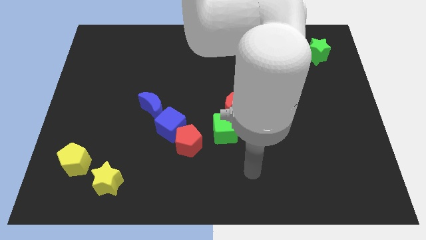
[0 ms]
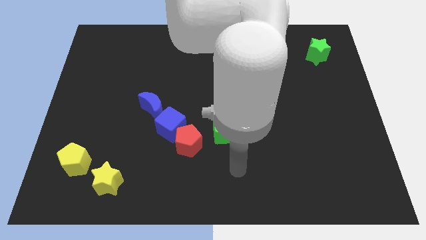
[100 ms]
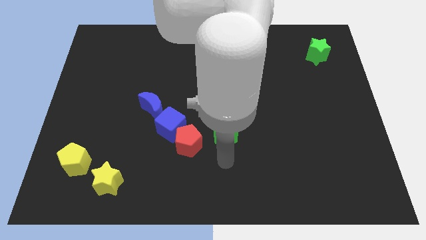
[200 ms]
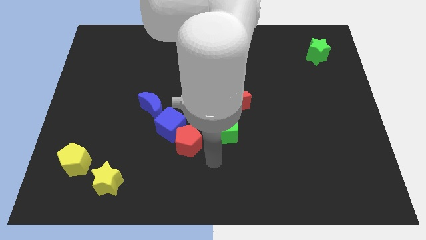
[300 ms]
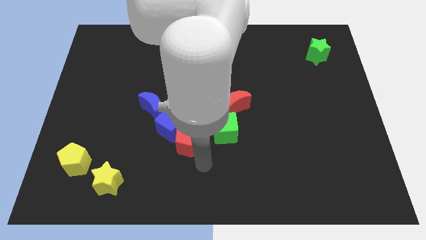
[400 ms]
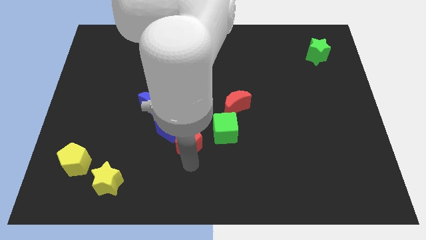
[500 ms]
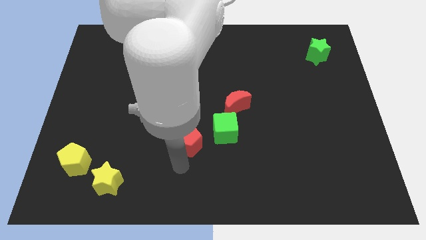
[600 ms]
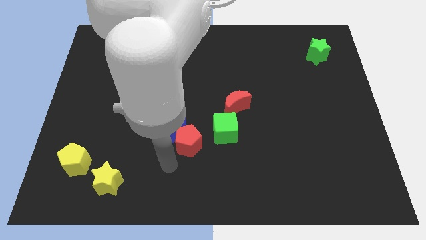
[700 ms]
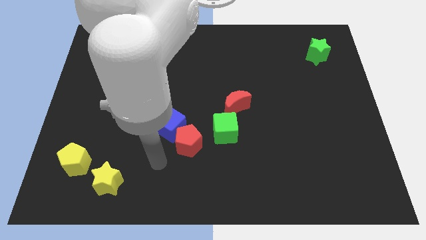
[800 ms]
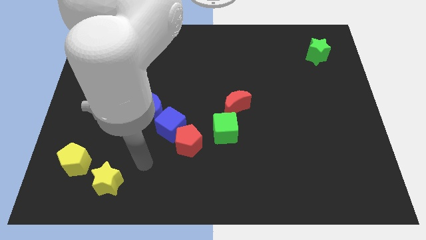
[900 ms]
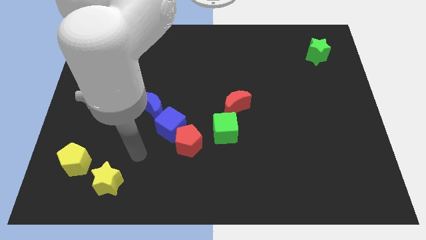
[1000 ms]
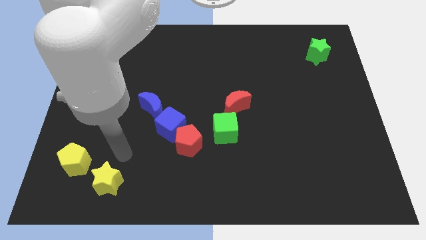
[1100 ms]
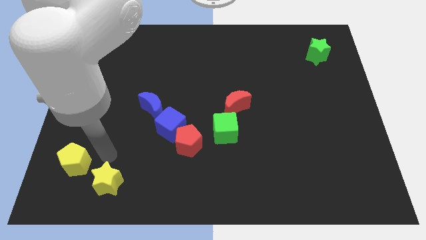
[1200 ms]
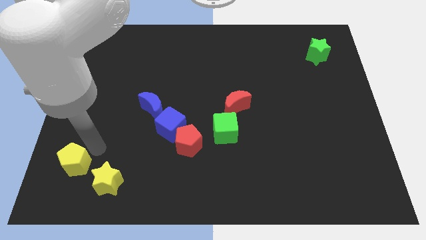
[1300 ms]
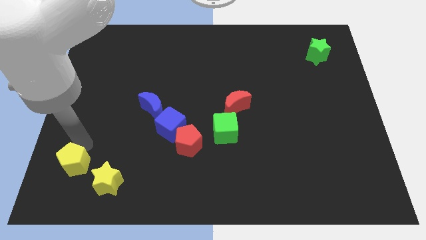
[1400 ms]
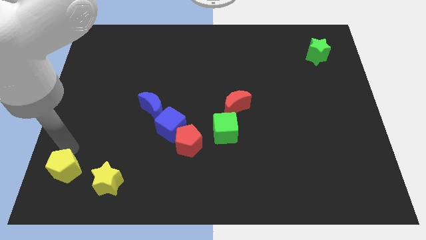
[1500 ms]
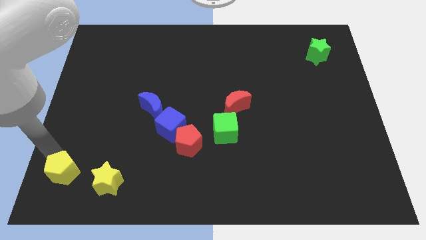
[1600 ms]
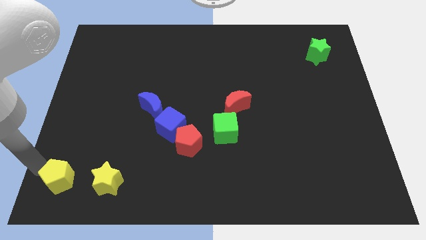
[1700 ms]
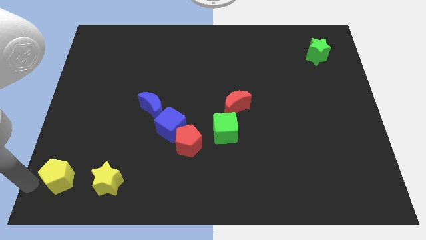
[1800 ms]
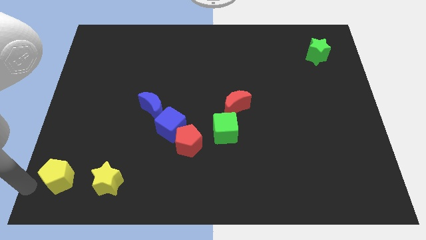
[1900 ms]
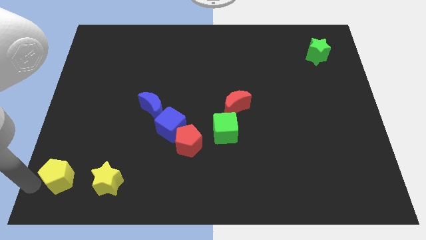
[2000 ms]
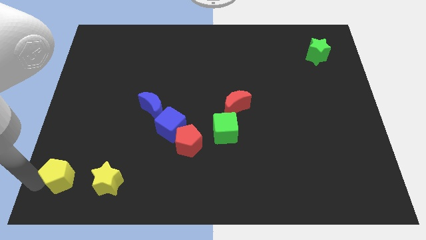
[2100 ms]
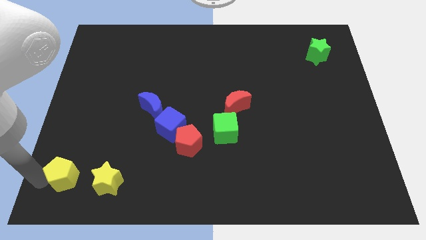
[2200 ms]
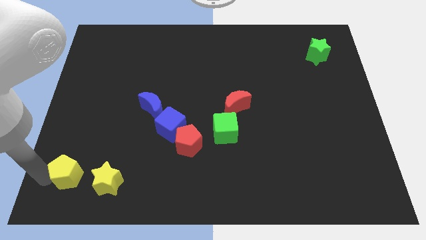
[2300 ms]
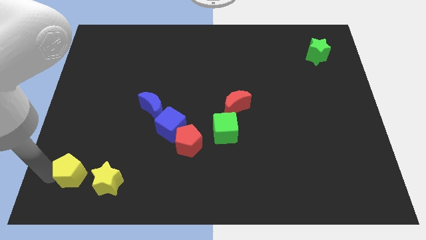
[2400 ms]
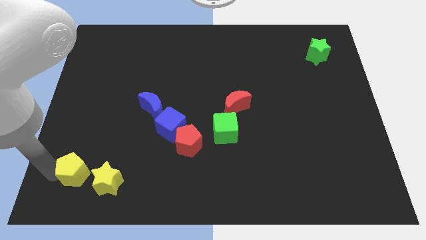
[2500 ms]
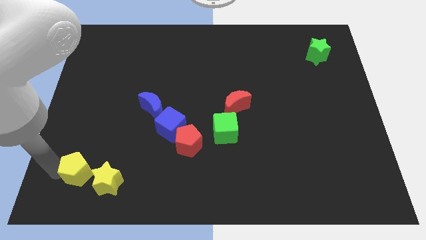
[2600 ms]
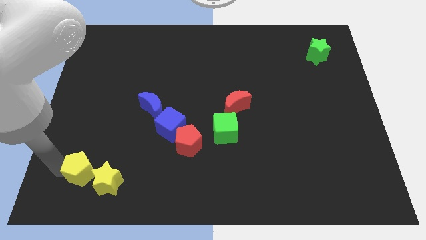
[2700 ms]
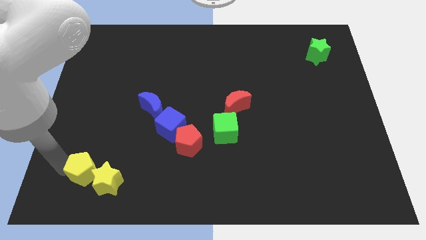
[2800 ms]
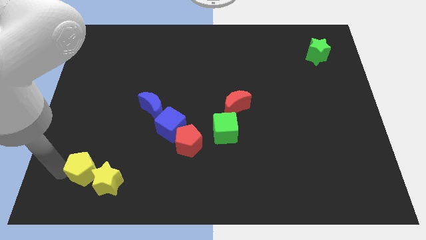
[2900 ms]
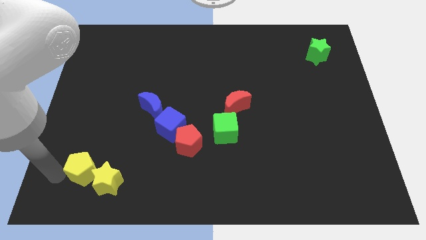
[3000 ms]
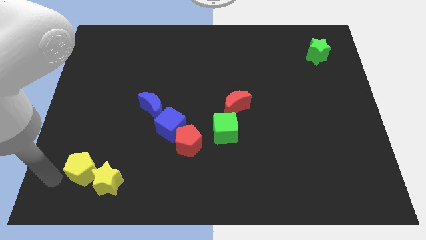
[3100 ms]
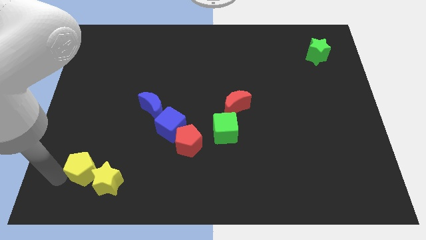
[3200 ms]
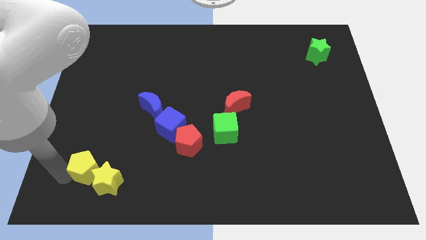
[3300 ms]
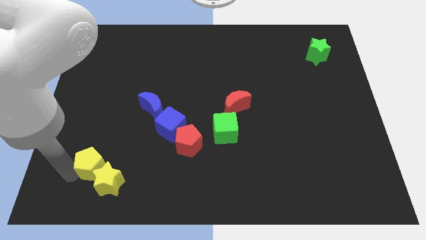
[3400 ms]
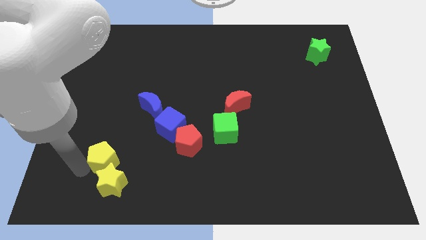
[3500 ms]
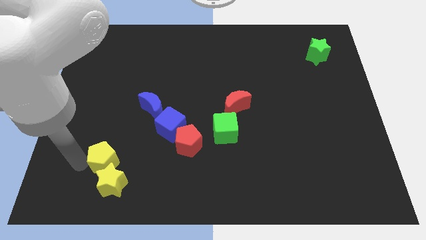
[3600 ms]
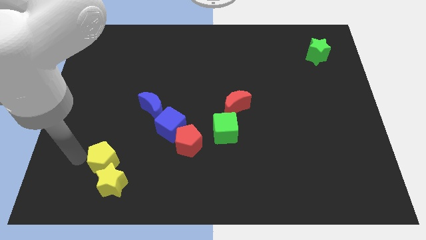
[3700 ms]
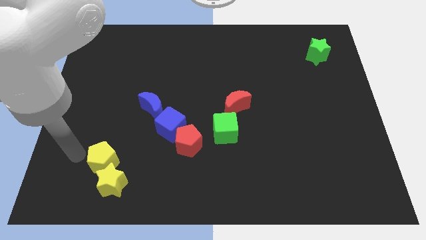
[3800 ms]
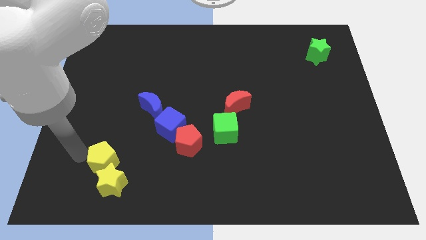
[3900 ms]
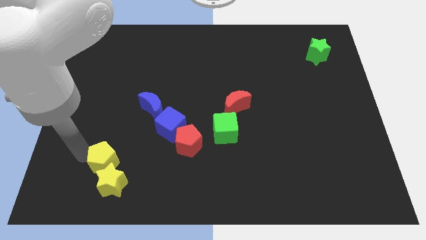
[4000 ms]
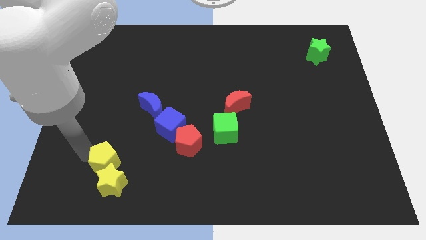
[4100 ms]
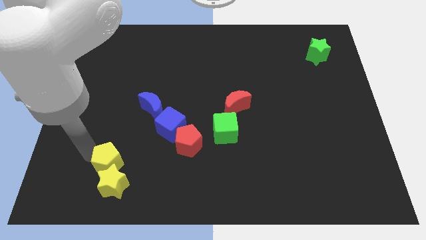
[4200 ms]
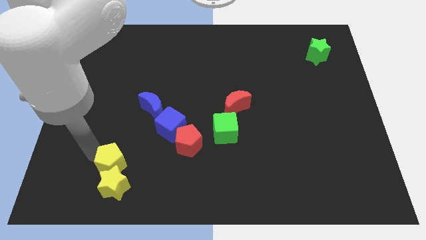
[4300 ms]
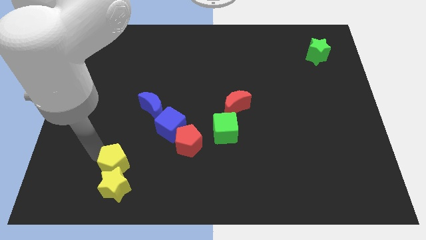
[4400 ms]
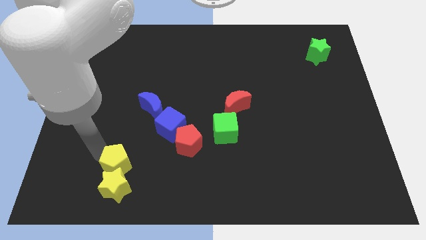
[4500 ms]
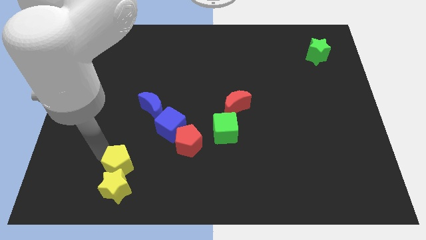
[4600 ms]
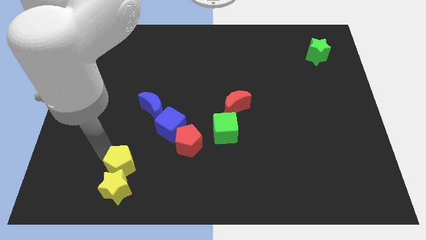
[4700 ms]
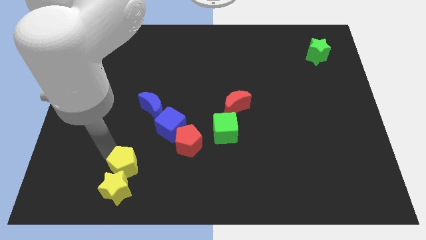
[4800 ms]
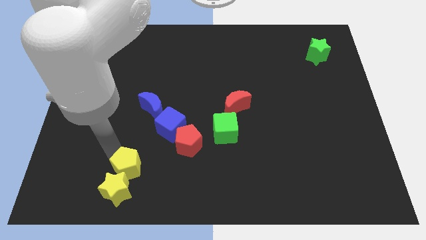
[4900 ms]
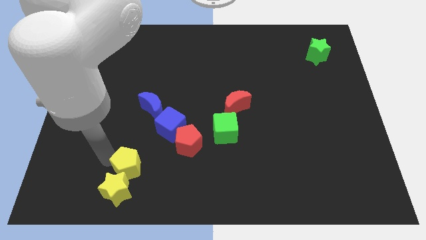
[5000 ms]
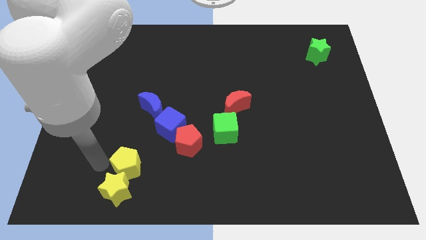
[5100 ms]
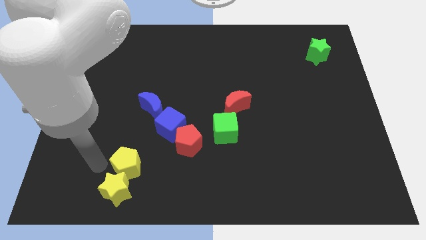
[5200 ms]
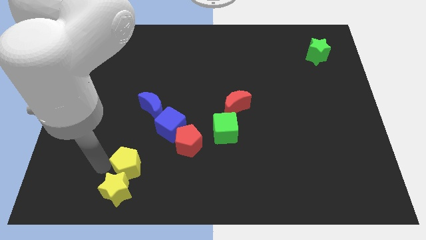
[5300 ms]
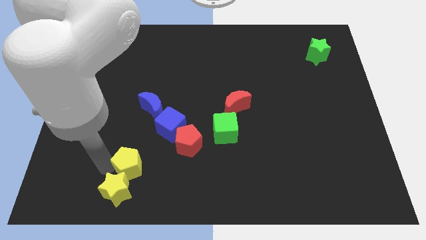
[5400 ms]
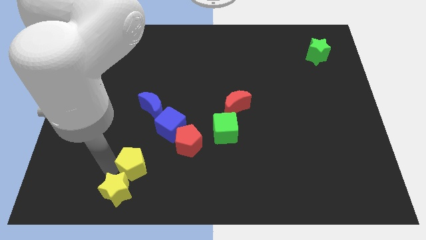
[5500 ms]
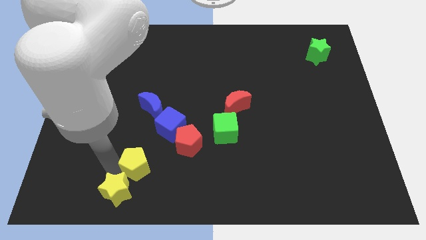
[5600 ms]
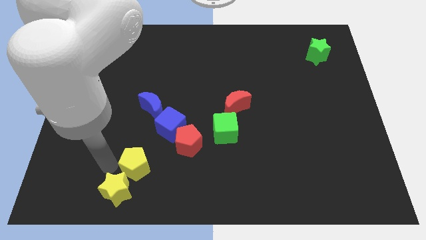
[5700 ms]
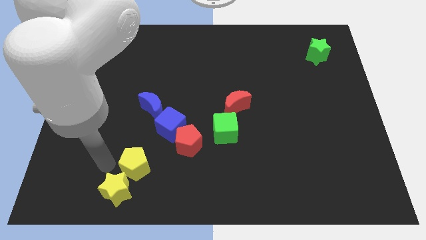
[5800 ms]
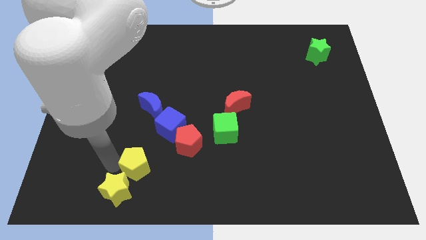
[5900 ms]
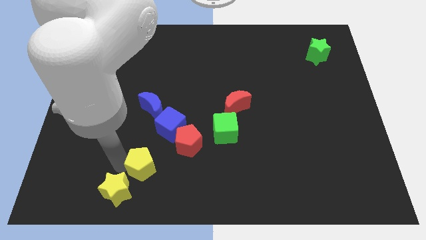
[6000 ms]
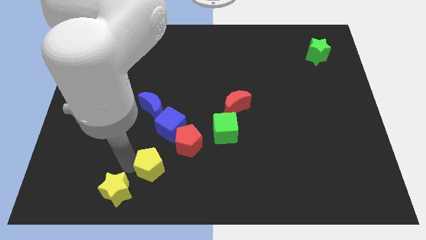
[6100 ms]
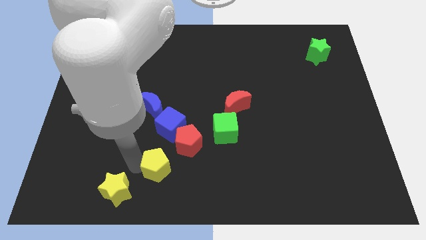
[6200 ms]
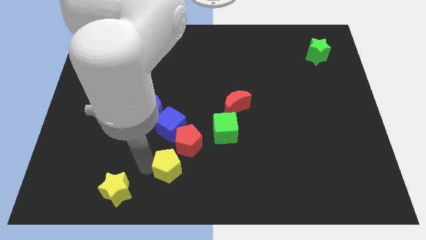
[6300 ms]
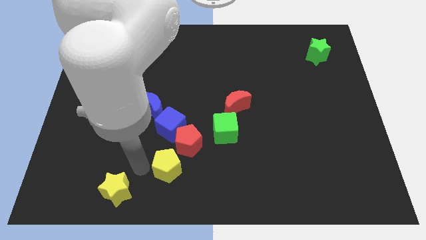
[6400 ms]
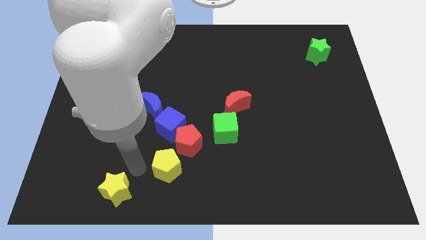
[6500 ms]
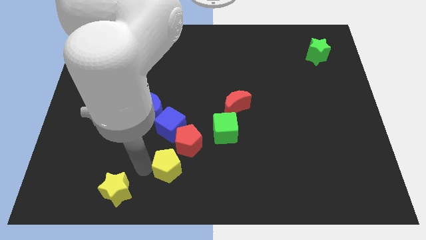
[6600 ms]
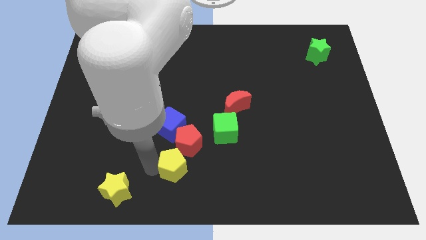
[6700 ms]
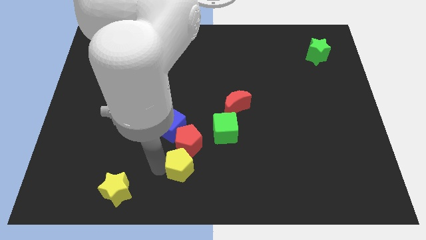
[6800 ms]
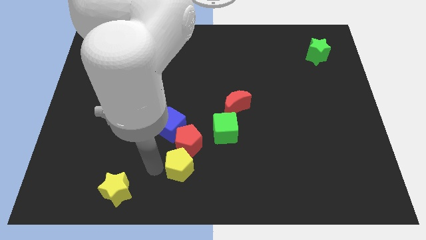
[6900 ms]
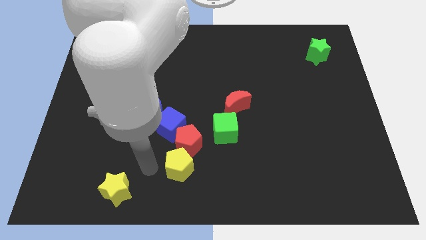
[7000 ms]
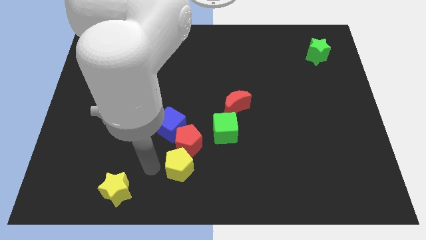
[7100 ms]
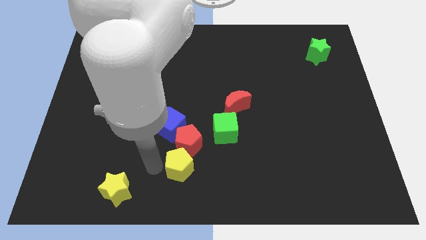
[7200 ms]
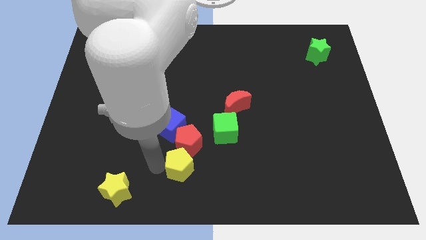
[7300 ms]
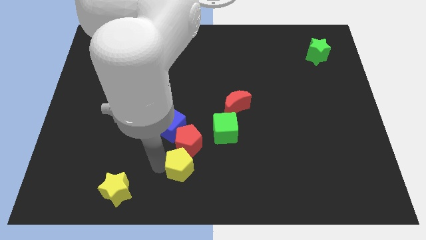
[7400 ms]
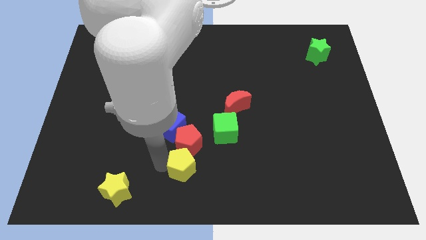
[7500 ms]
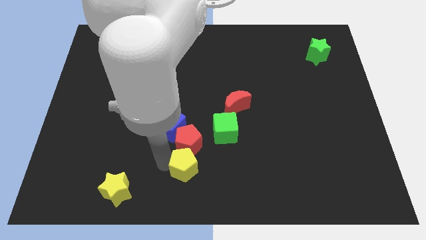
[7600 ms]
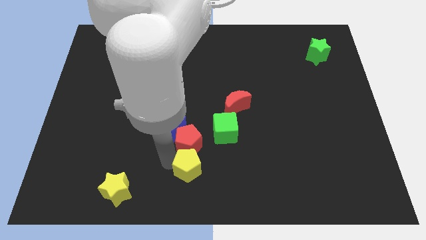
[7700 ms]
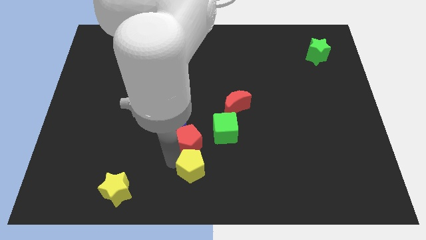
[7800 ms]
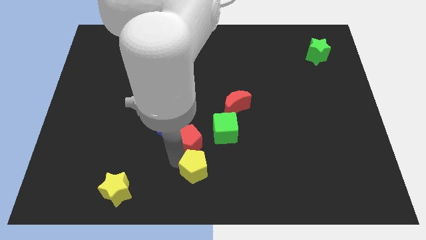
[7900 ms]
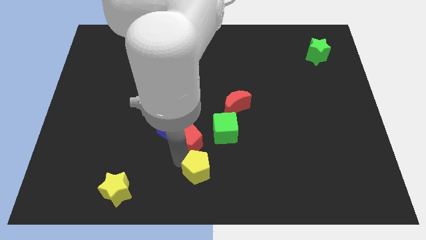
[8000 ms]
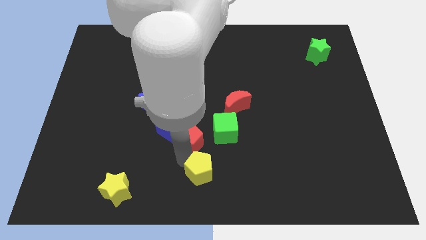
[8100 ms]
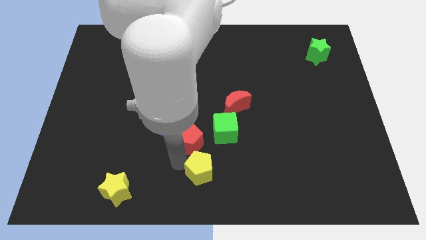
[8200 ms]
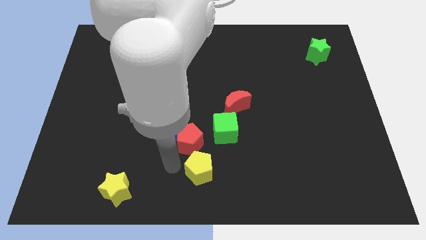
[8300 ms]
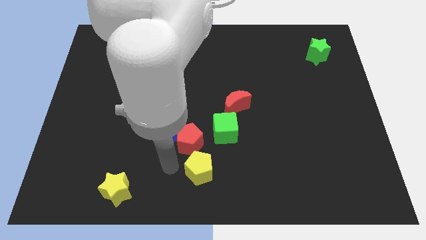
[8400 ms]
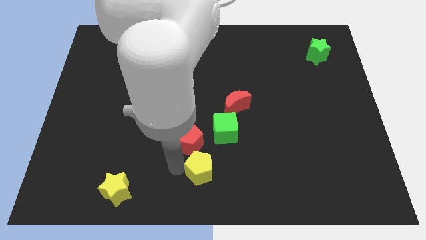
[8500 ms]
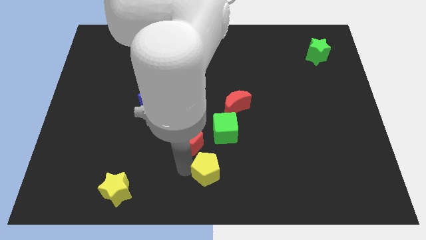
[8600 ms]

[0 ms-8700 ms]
move the yellow pentagon below the green cube
